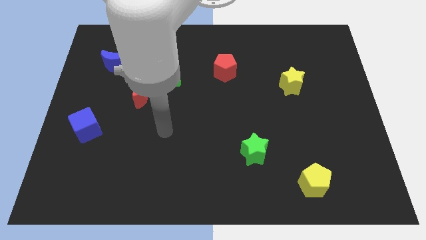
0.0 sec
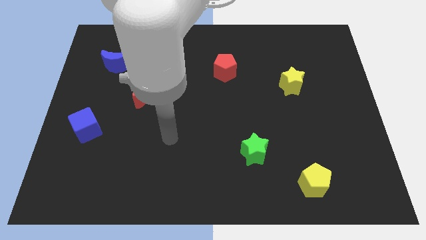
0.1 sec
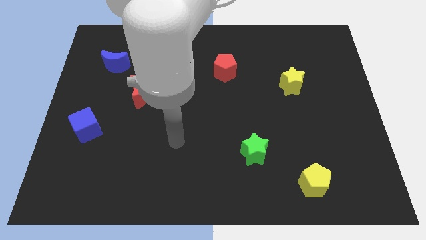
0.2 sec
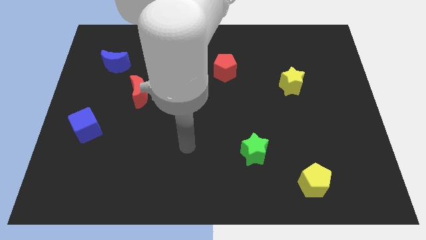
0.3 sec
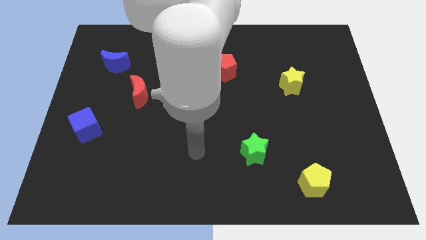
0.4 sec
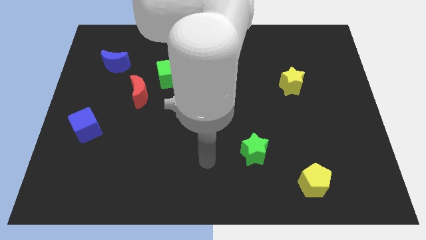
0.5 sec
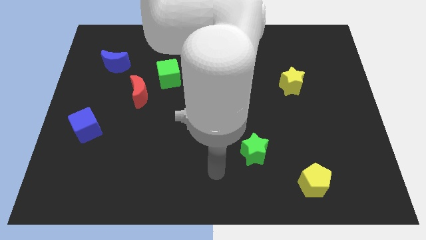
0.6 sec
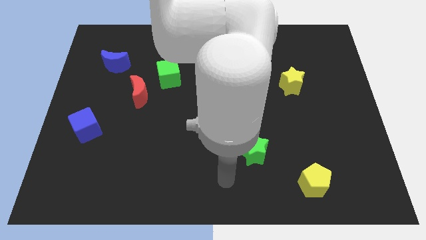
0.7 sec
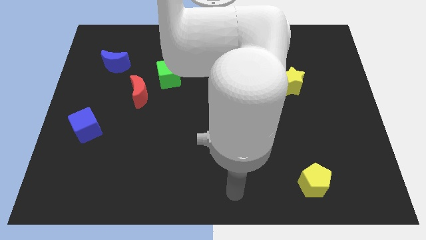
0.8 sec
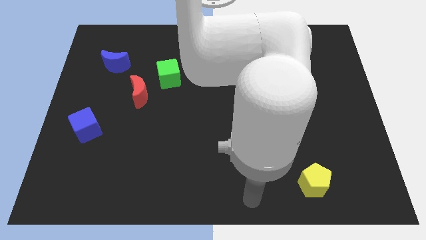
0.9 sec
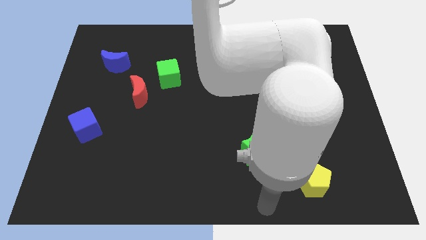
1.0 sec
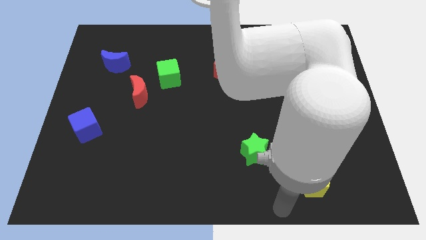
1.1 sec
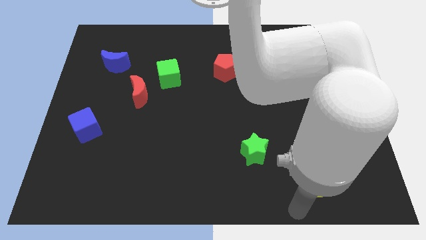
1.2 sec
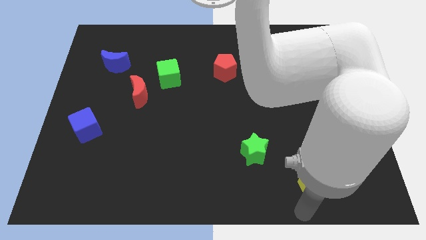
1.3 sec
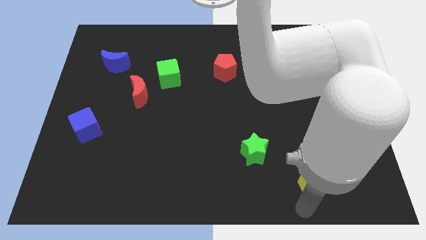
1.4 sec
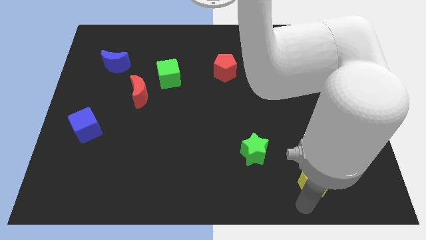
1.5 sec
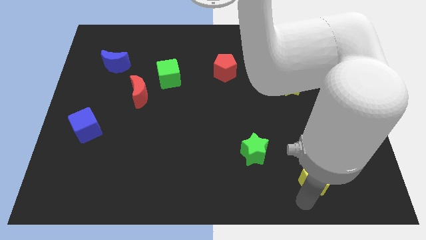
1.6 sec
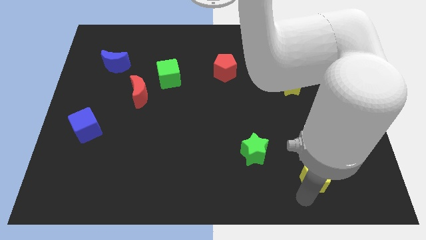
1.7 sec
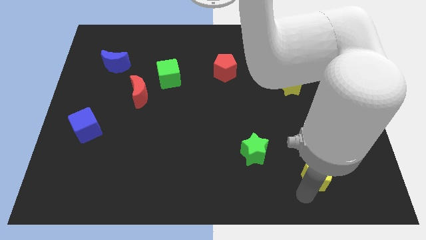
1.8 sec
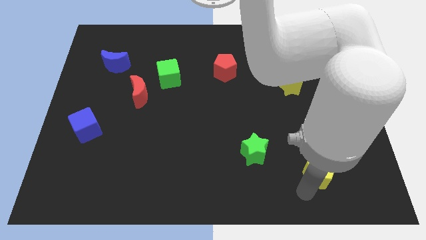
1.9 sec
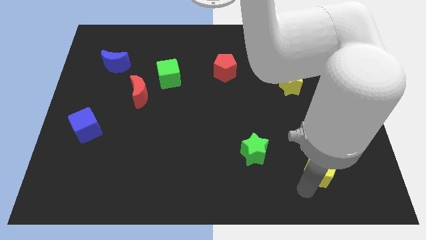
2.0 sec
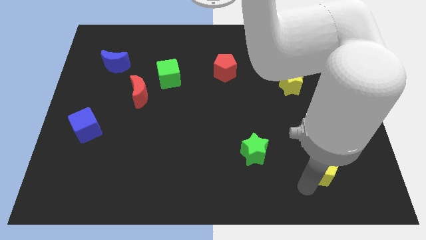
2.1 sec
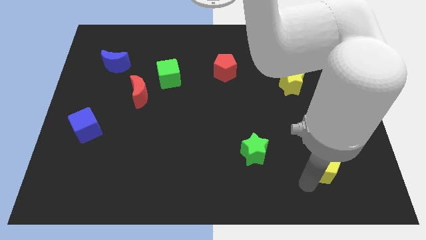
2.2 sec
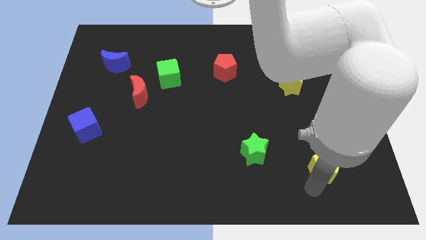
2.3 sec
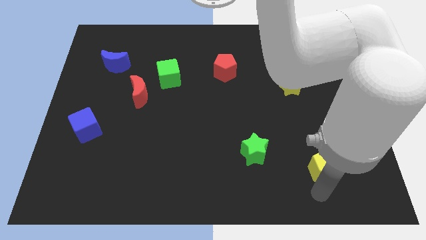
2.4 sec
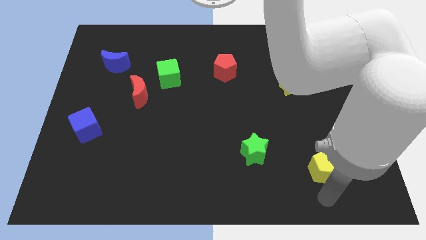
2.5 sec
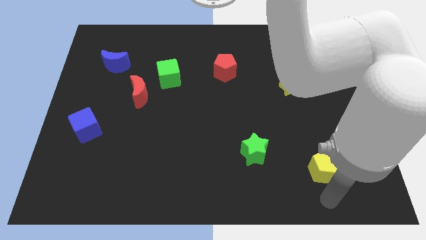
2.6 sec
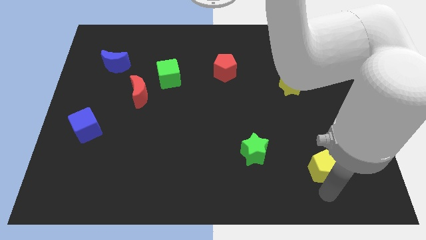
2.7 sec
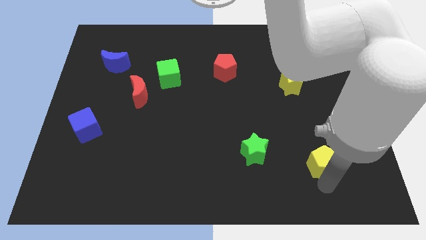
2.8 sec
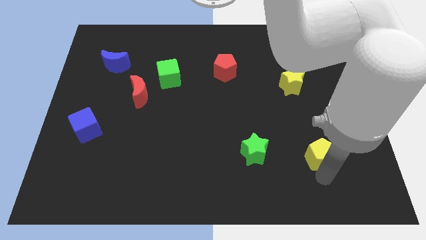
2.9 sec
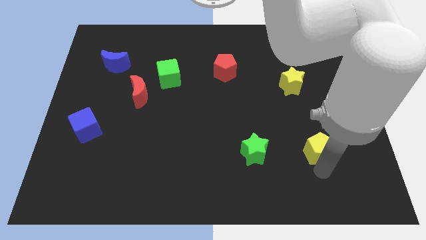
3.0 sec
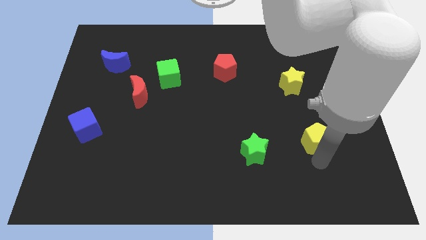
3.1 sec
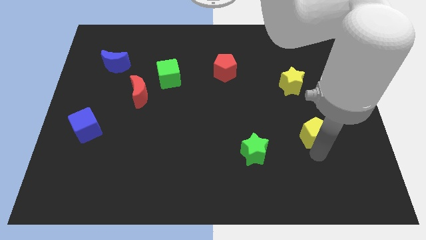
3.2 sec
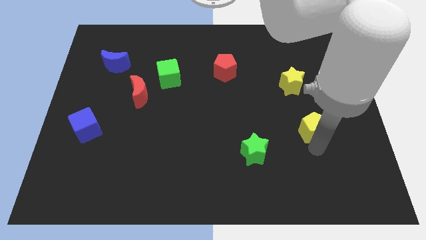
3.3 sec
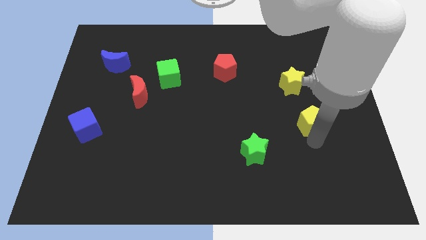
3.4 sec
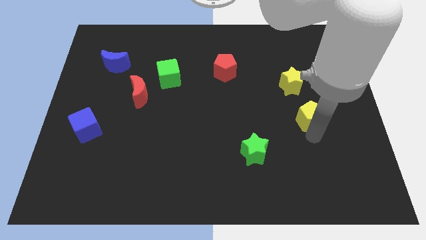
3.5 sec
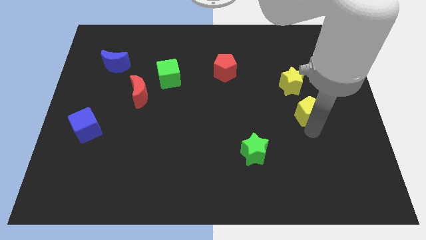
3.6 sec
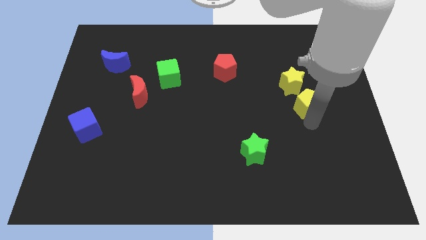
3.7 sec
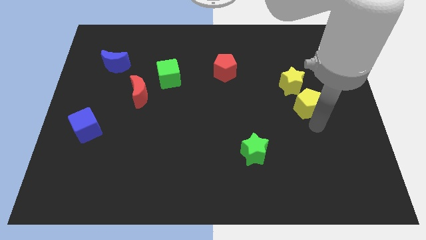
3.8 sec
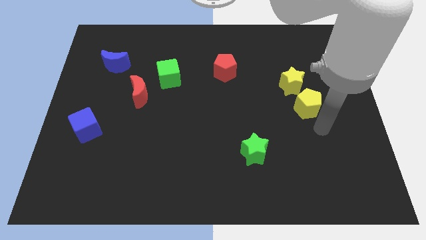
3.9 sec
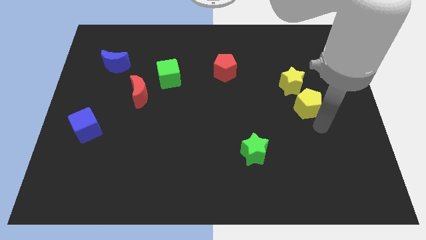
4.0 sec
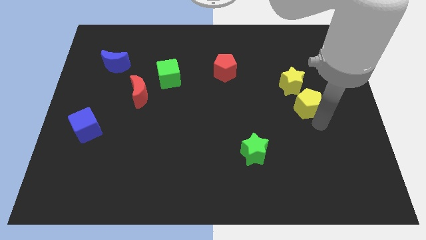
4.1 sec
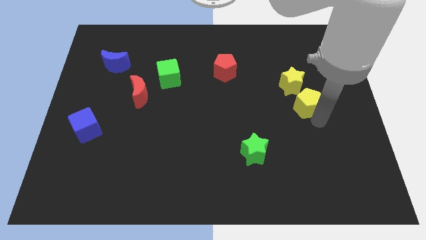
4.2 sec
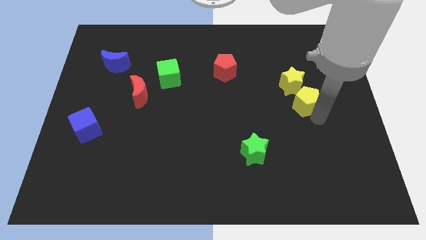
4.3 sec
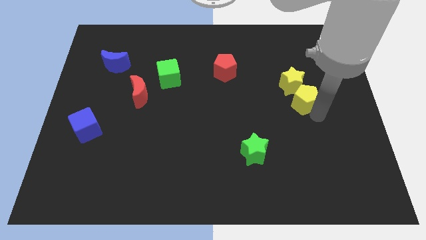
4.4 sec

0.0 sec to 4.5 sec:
move the yellow pentagon towards the yellow star

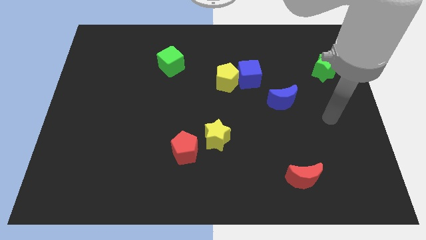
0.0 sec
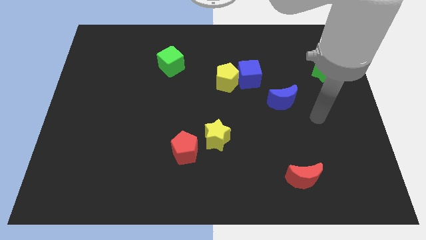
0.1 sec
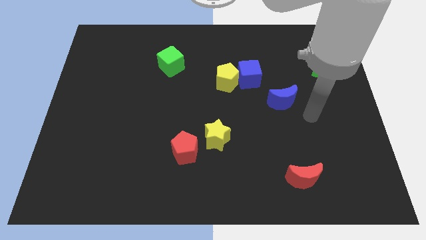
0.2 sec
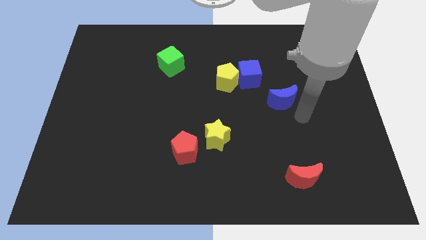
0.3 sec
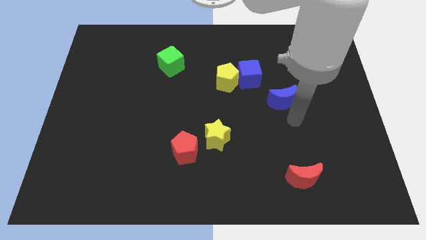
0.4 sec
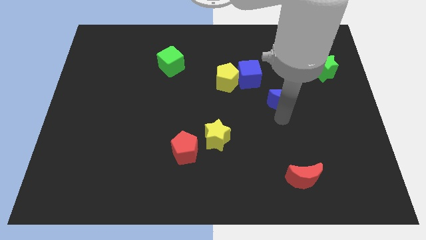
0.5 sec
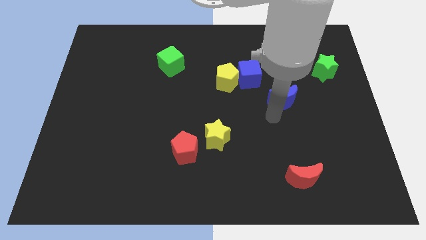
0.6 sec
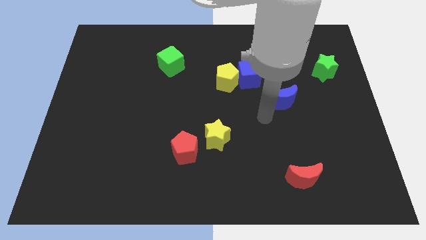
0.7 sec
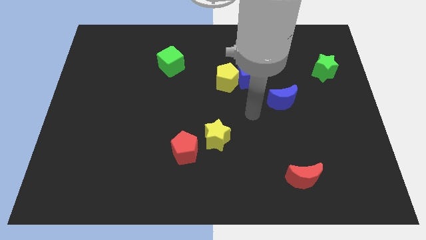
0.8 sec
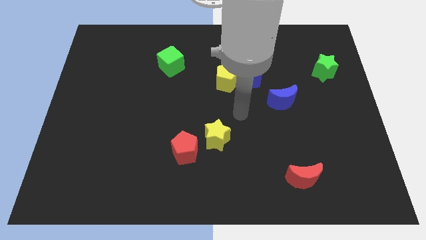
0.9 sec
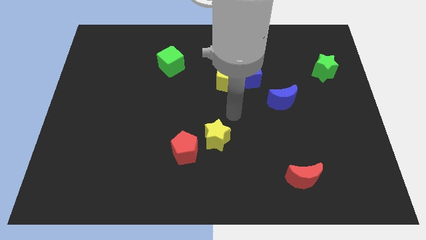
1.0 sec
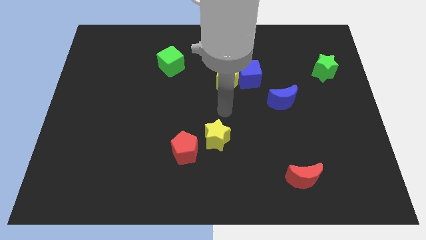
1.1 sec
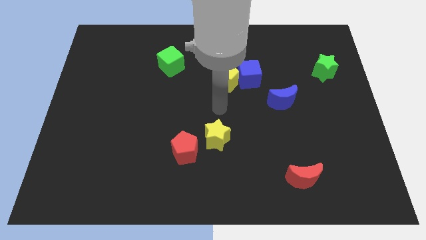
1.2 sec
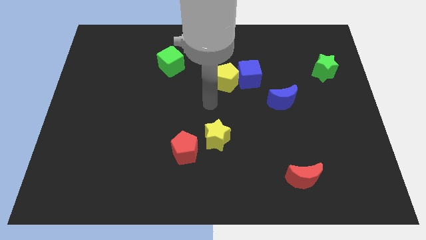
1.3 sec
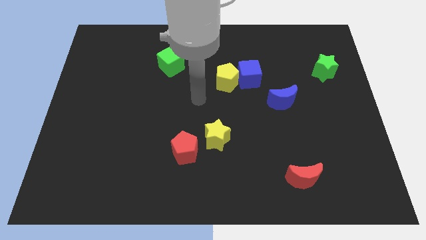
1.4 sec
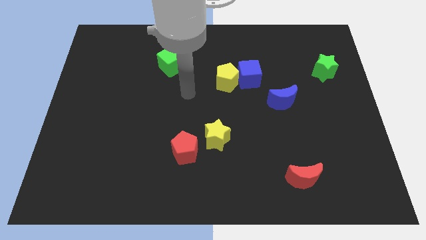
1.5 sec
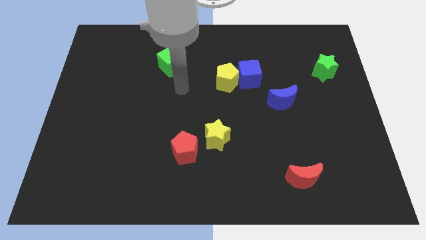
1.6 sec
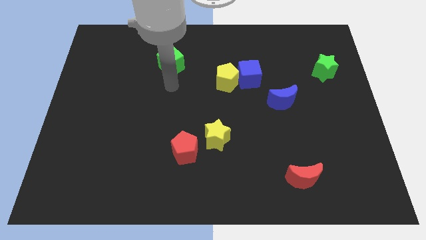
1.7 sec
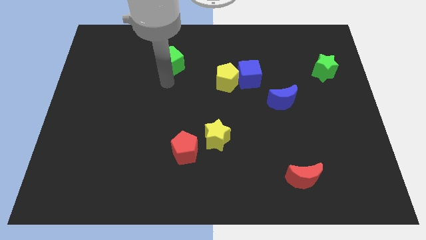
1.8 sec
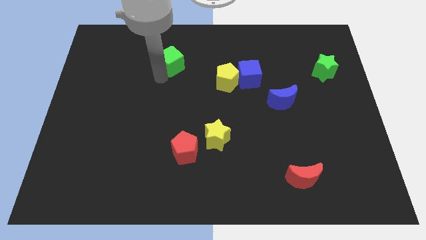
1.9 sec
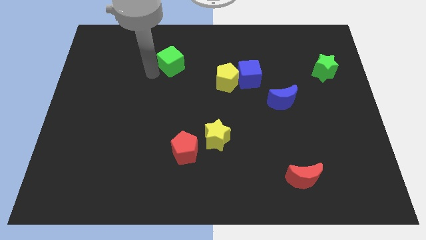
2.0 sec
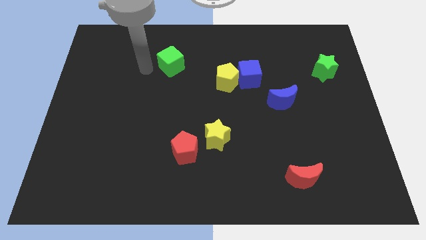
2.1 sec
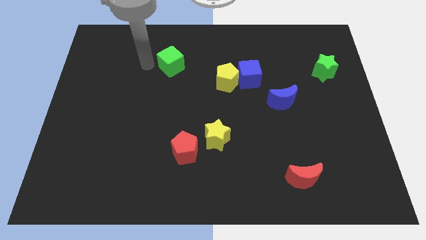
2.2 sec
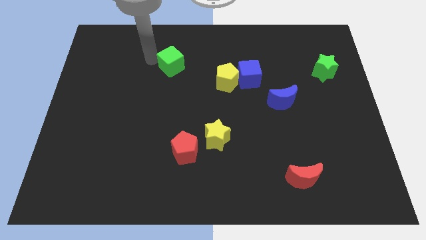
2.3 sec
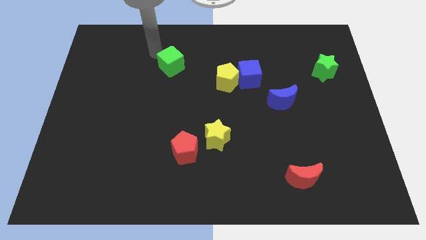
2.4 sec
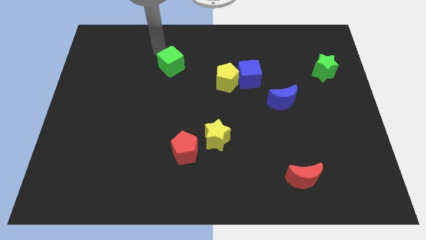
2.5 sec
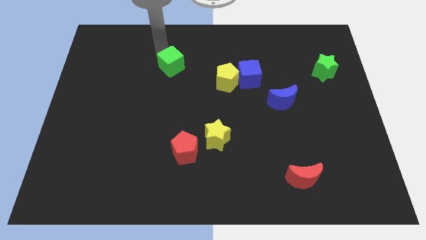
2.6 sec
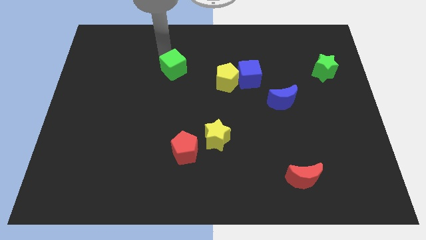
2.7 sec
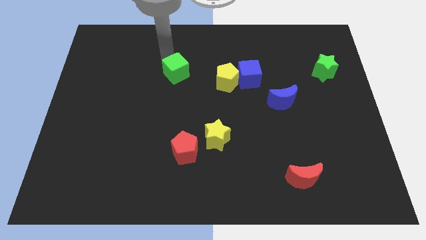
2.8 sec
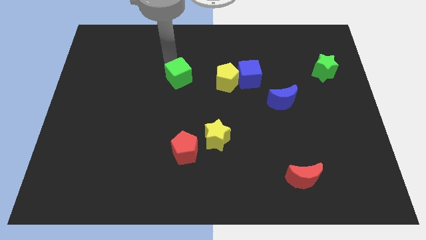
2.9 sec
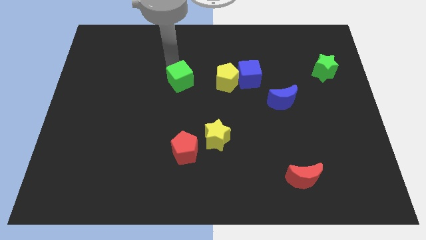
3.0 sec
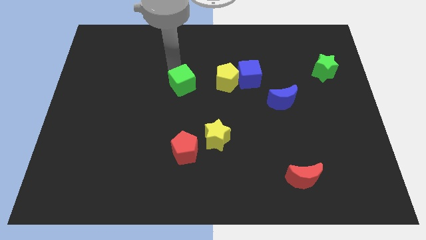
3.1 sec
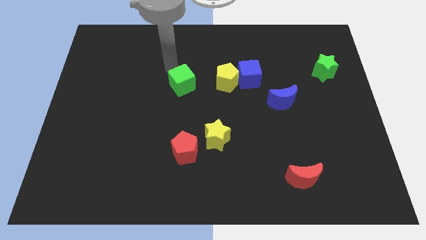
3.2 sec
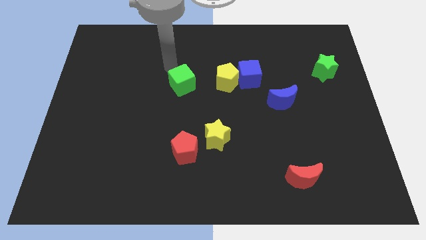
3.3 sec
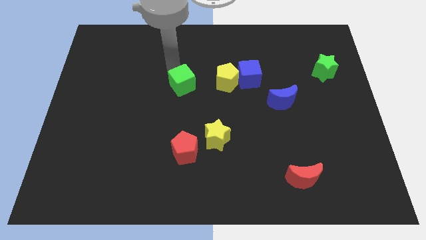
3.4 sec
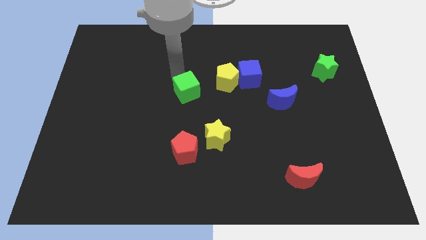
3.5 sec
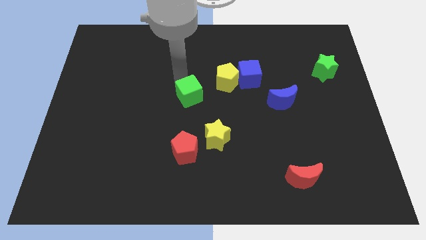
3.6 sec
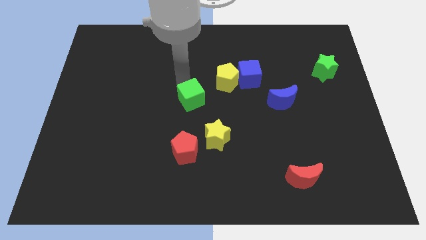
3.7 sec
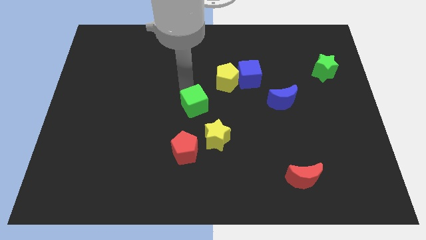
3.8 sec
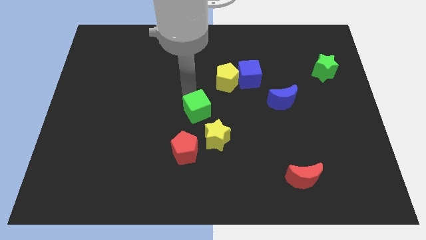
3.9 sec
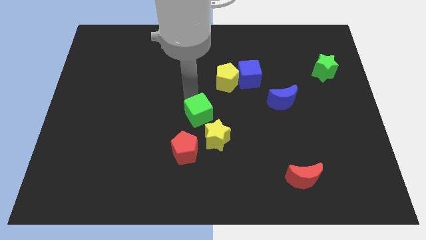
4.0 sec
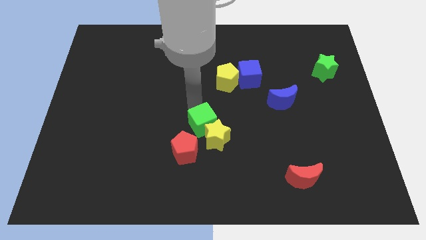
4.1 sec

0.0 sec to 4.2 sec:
push the green cube to the yellow star
